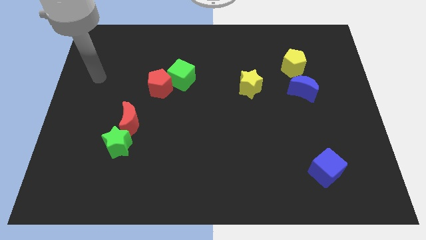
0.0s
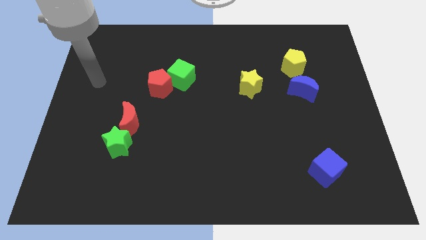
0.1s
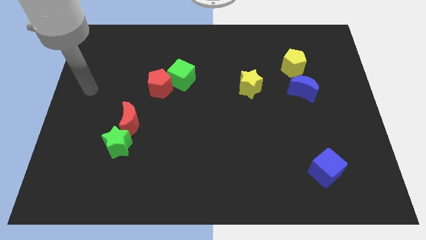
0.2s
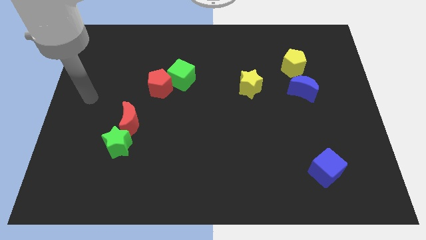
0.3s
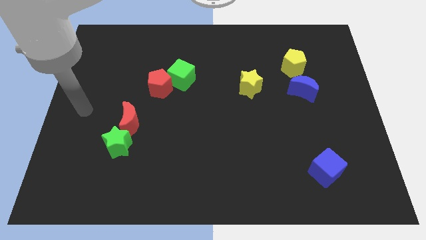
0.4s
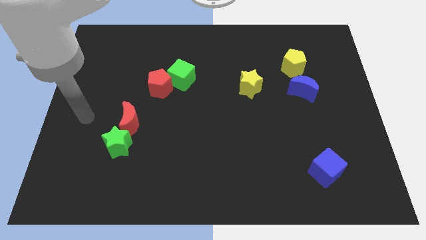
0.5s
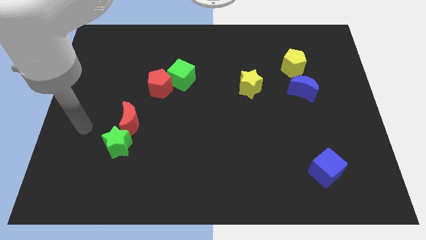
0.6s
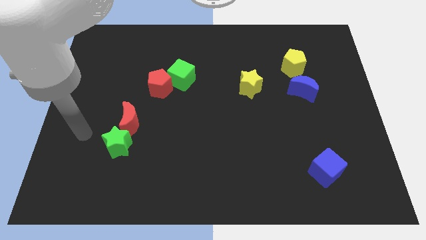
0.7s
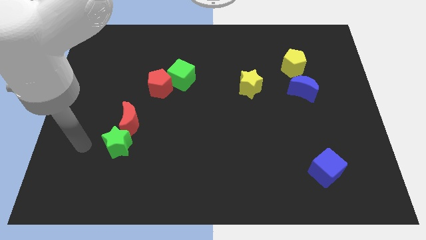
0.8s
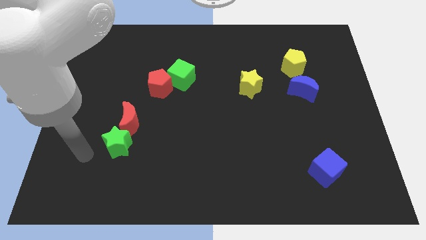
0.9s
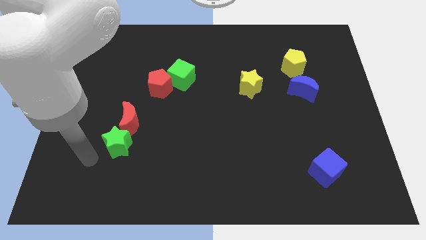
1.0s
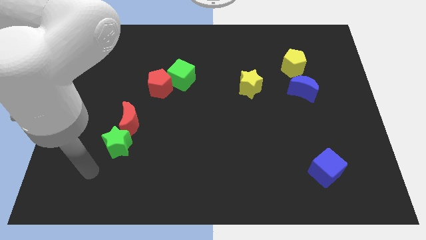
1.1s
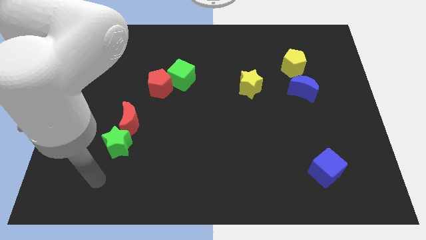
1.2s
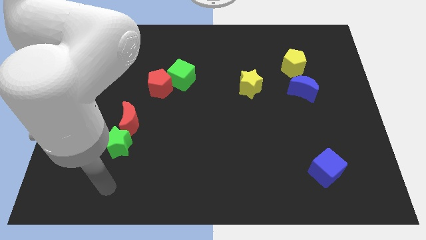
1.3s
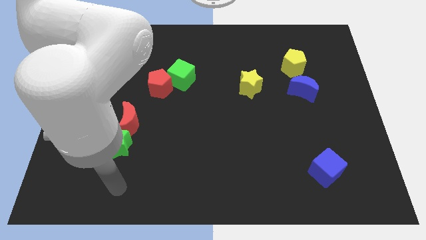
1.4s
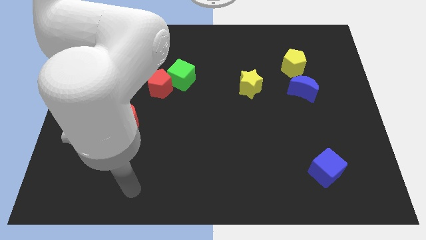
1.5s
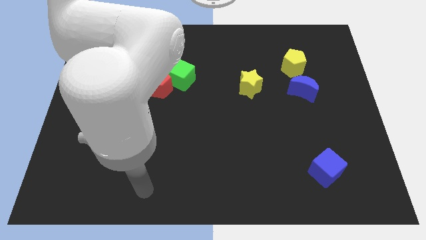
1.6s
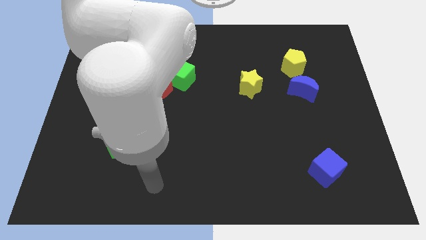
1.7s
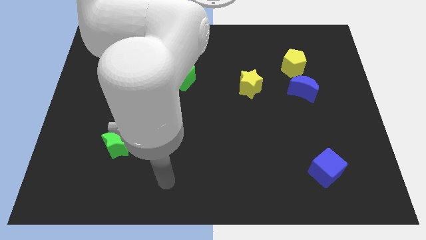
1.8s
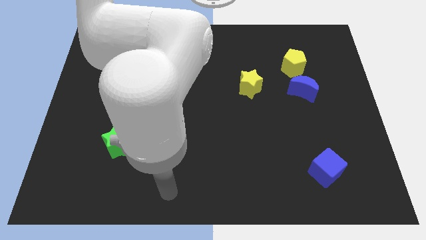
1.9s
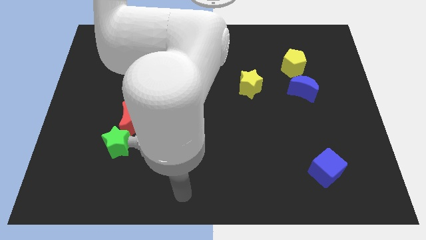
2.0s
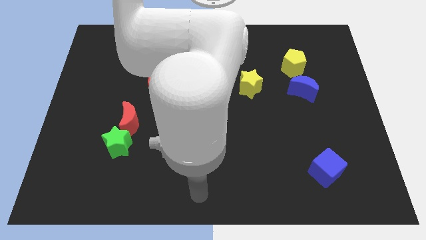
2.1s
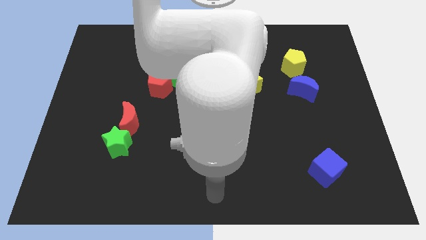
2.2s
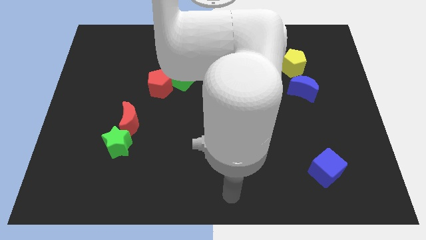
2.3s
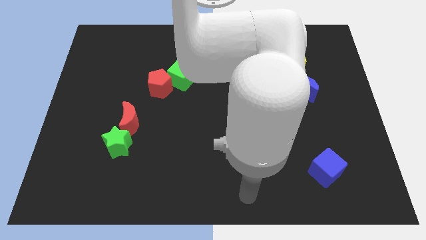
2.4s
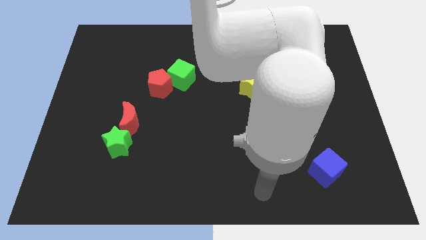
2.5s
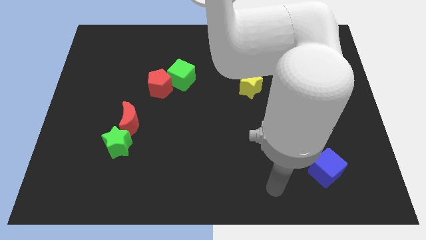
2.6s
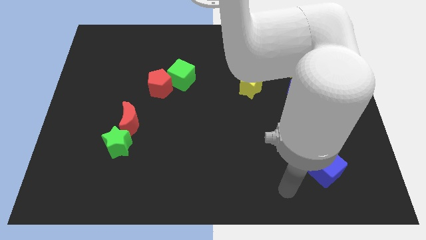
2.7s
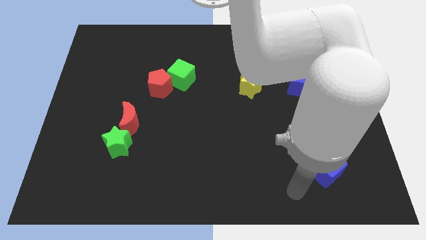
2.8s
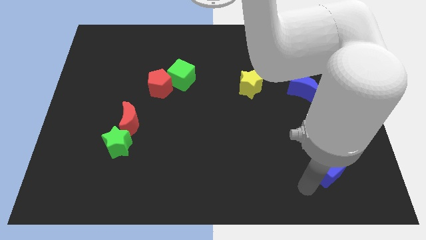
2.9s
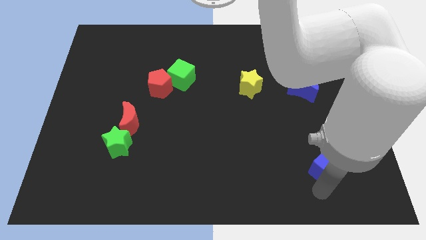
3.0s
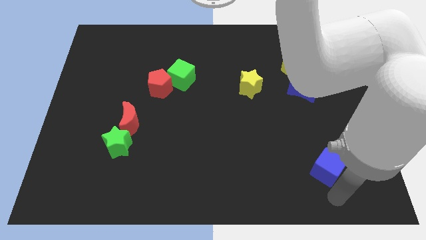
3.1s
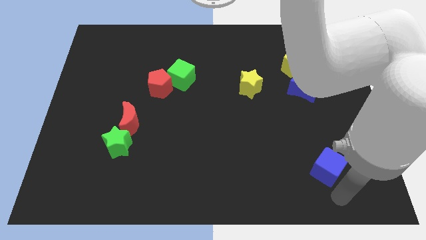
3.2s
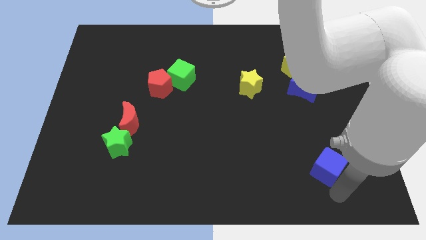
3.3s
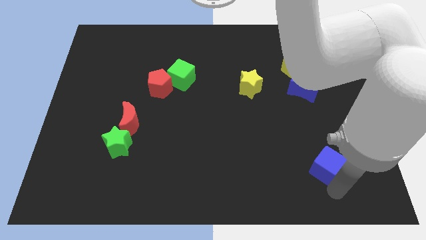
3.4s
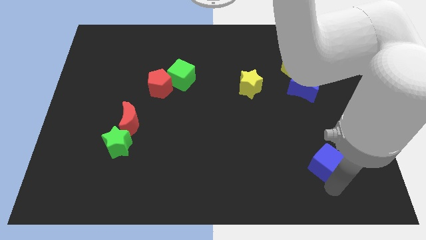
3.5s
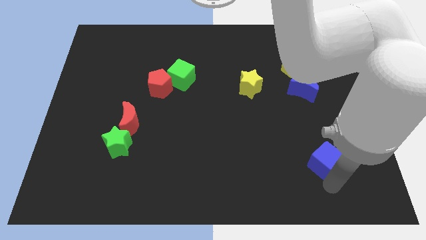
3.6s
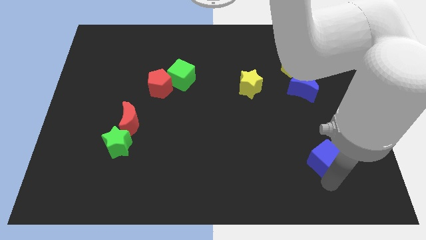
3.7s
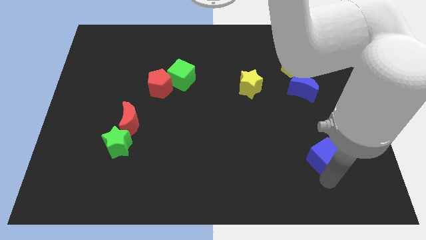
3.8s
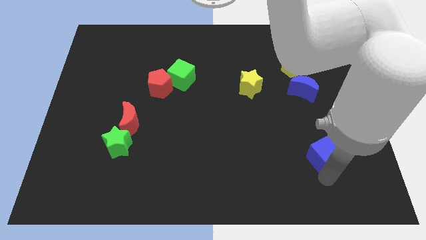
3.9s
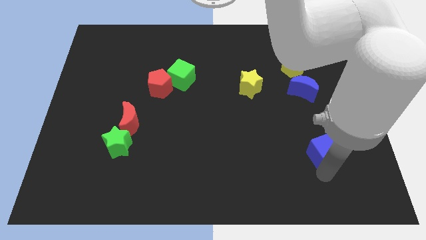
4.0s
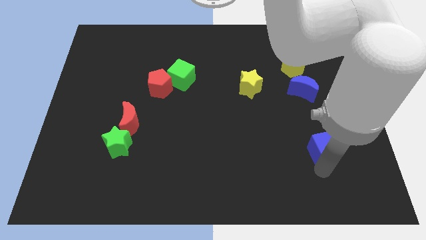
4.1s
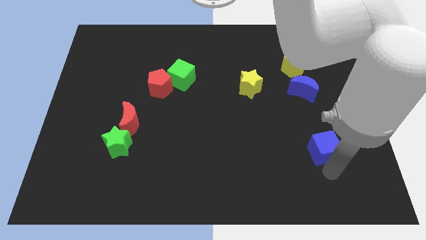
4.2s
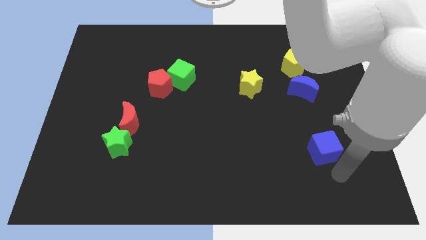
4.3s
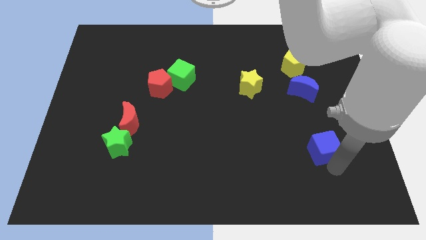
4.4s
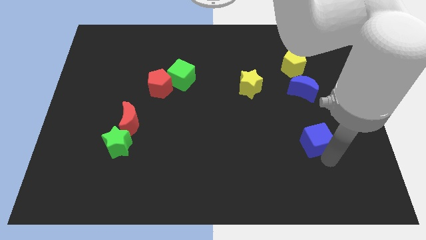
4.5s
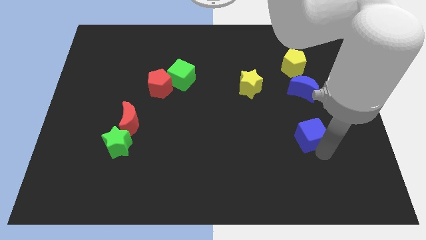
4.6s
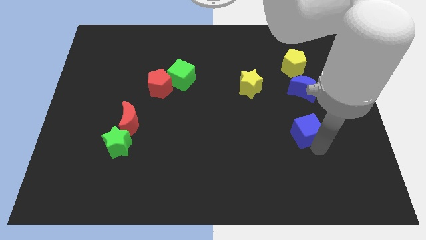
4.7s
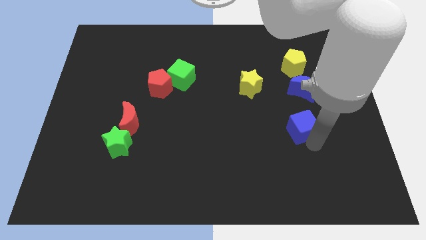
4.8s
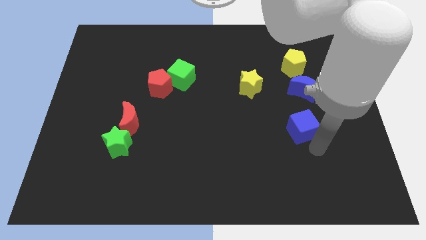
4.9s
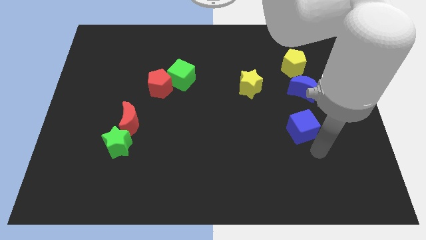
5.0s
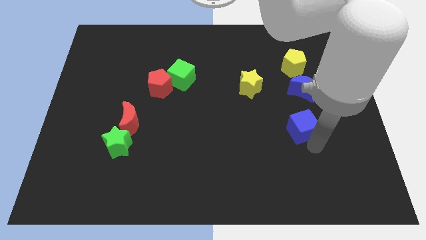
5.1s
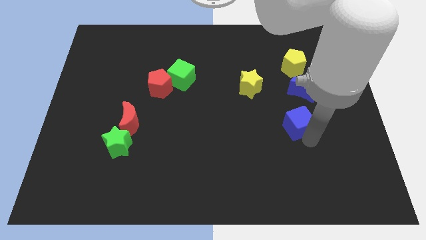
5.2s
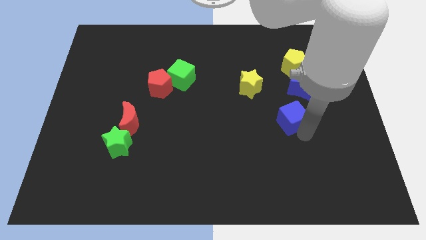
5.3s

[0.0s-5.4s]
put the blue cube to the bottom left of the blue moon

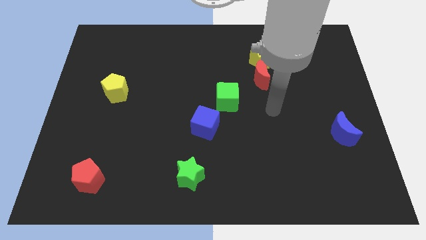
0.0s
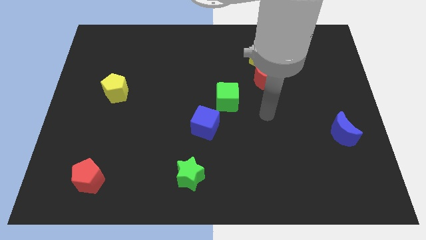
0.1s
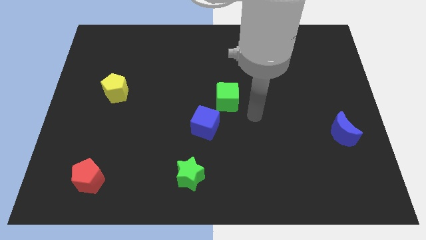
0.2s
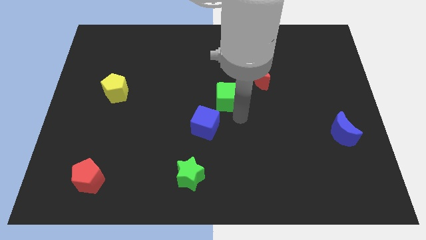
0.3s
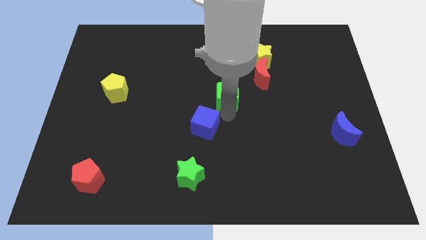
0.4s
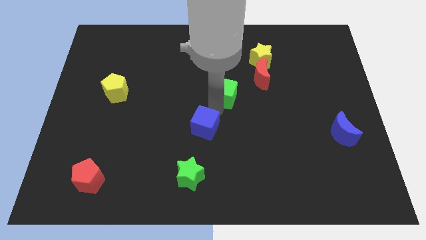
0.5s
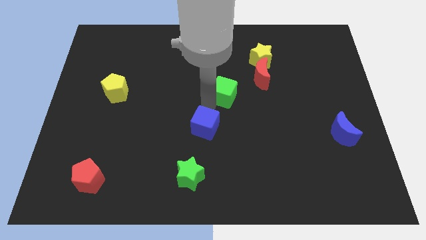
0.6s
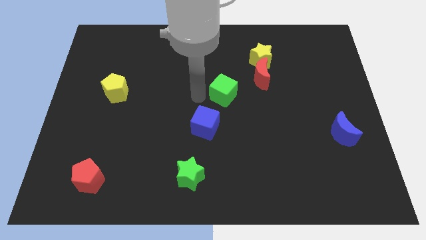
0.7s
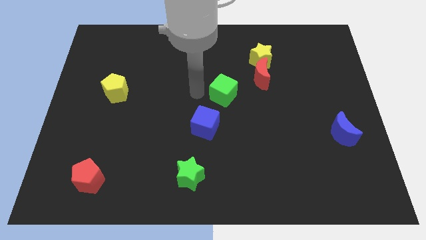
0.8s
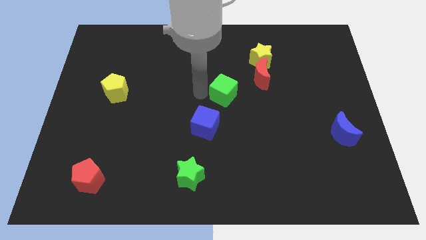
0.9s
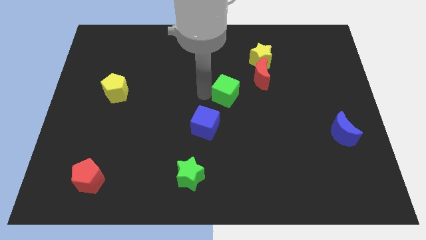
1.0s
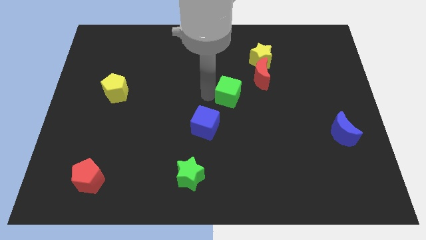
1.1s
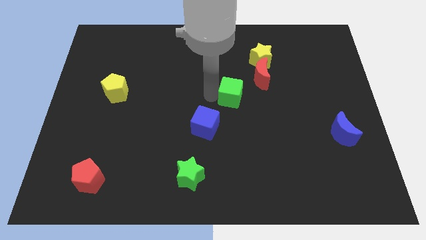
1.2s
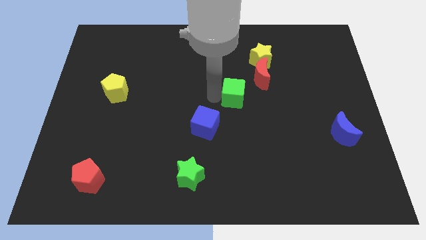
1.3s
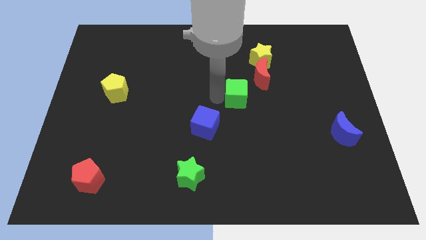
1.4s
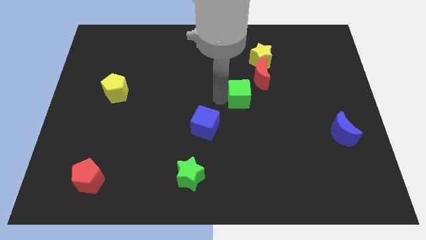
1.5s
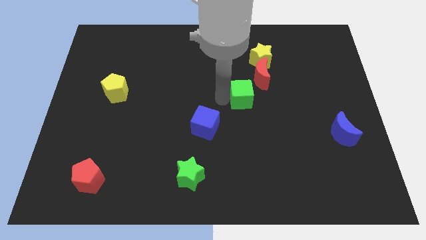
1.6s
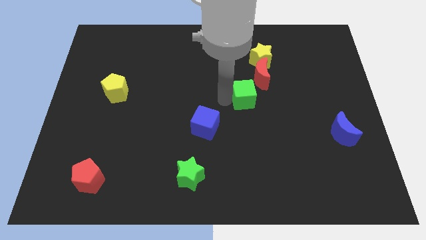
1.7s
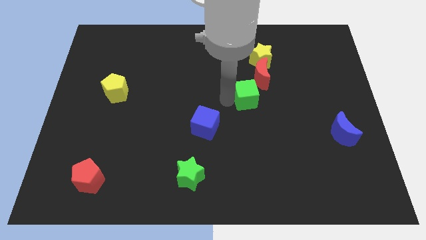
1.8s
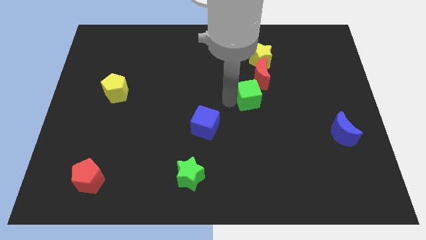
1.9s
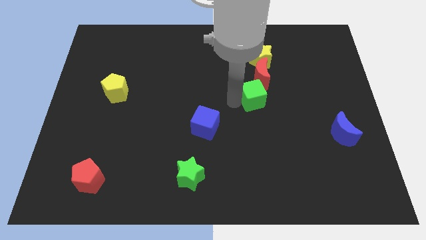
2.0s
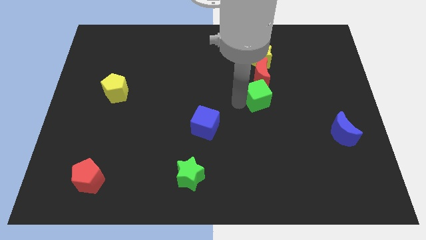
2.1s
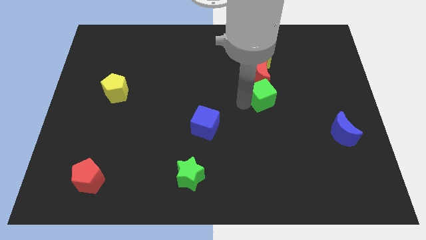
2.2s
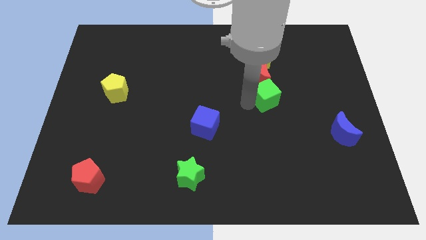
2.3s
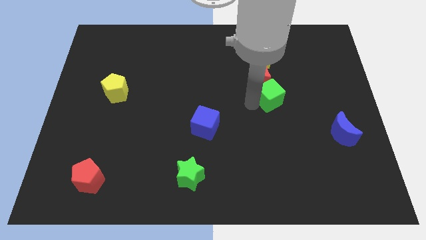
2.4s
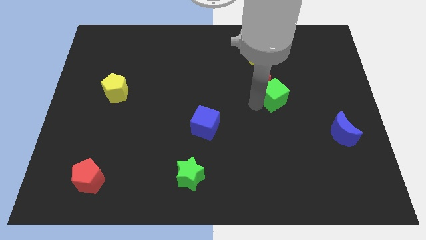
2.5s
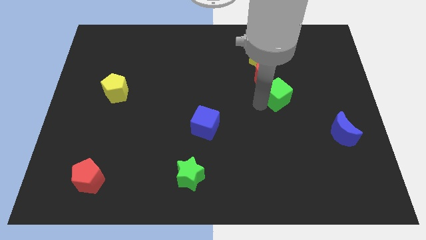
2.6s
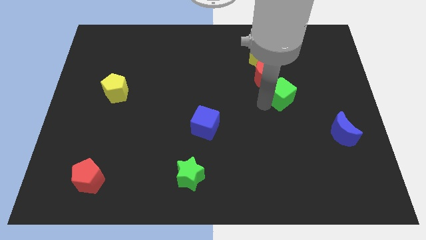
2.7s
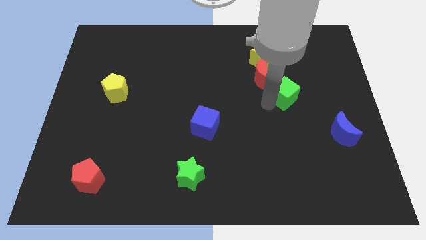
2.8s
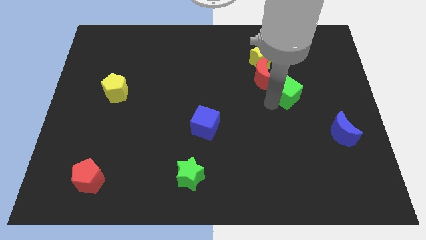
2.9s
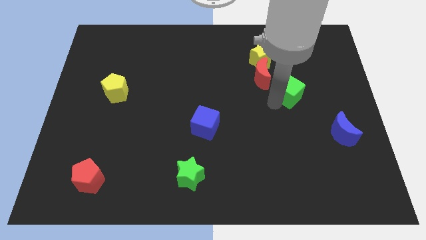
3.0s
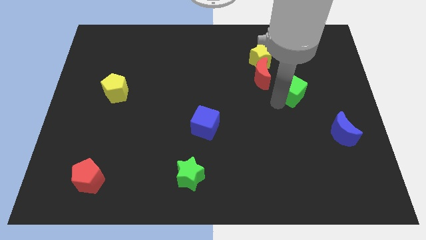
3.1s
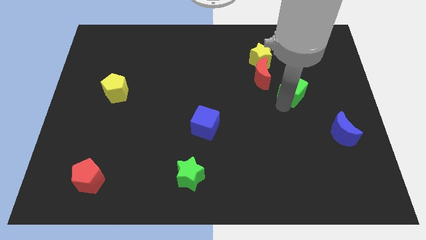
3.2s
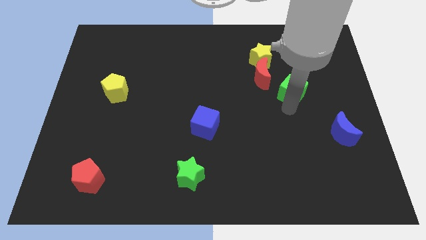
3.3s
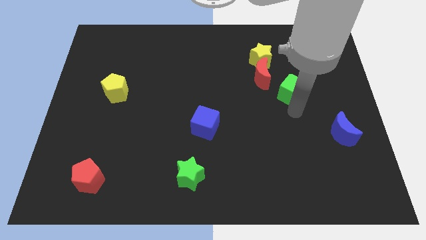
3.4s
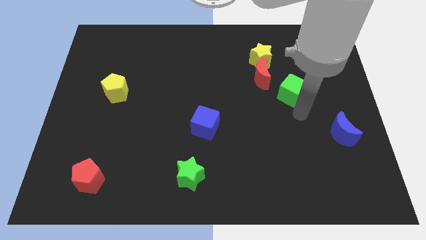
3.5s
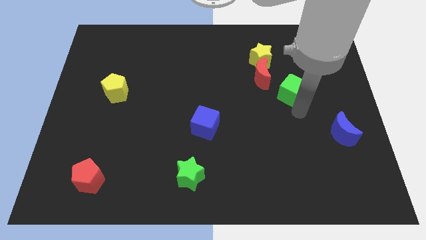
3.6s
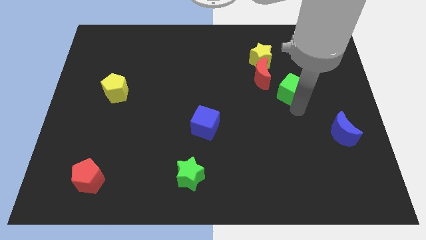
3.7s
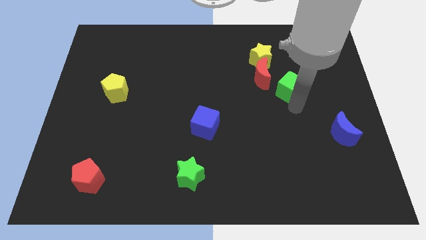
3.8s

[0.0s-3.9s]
put the green cube diagonally down and to the right of the yellow star
